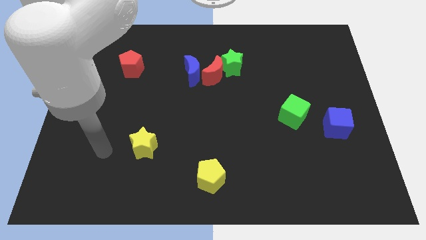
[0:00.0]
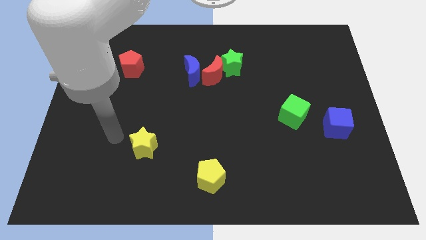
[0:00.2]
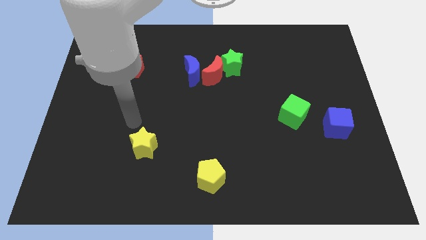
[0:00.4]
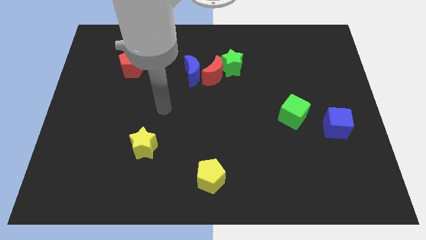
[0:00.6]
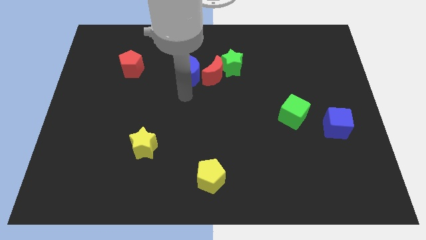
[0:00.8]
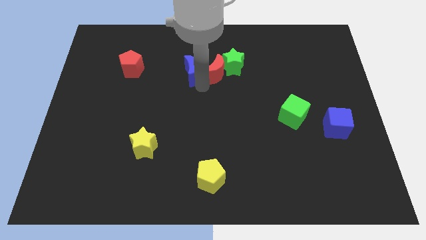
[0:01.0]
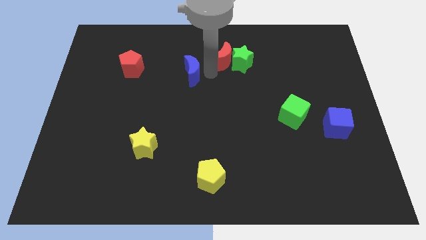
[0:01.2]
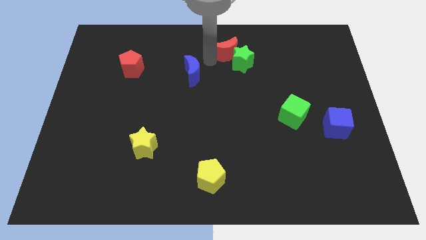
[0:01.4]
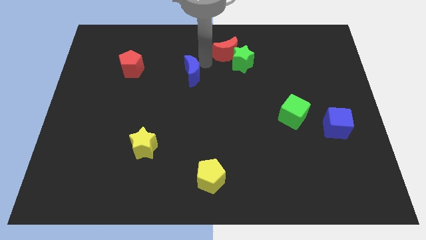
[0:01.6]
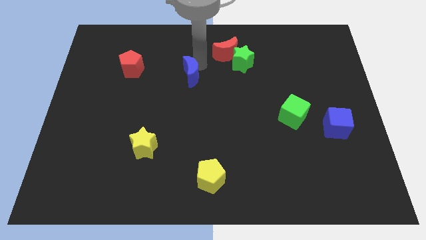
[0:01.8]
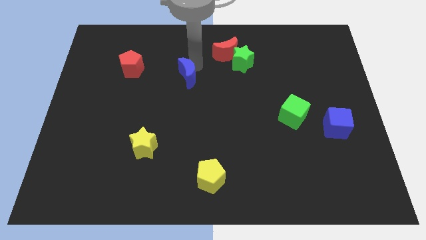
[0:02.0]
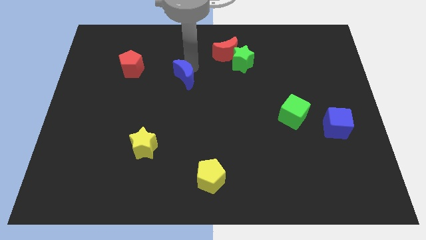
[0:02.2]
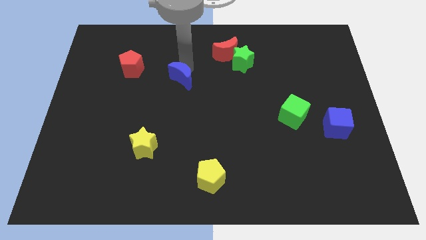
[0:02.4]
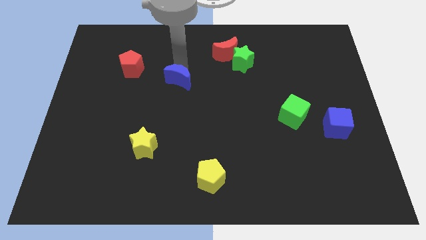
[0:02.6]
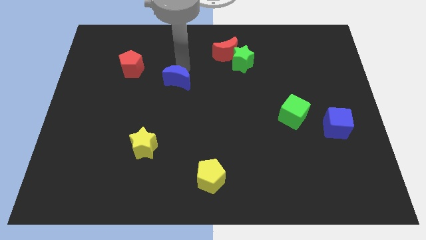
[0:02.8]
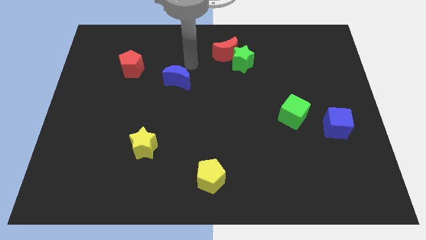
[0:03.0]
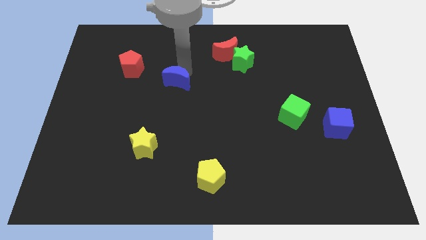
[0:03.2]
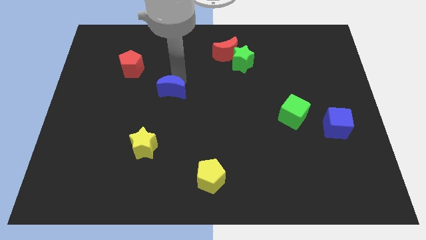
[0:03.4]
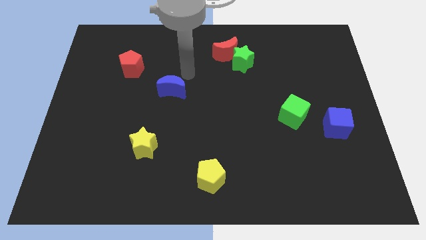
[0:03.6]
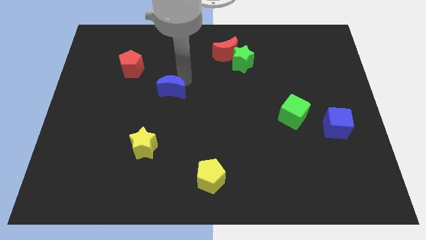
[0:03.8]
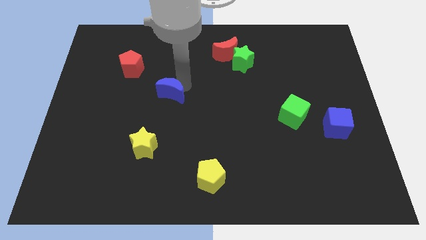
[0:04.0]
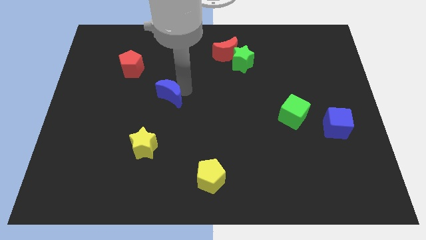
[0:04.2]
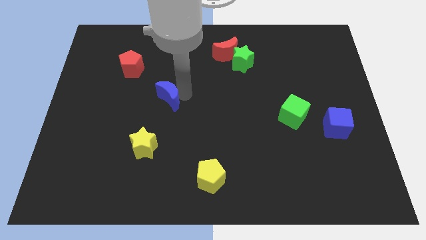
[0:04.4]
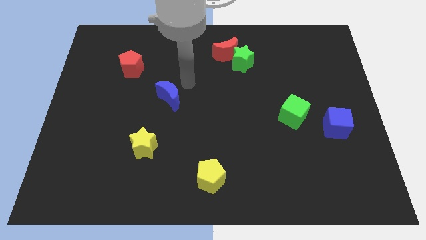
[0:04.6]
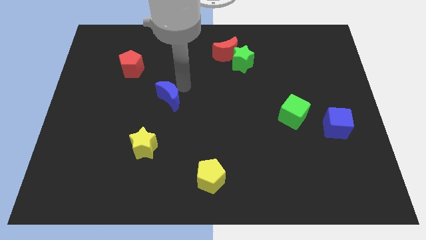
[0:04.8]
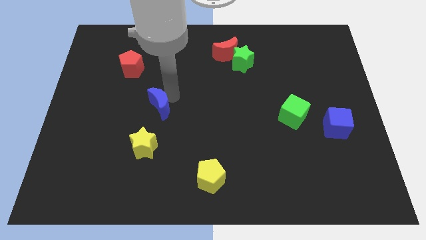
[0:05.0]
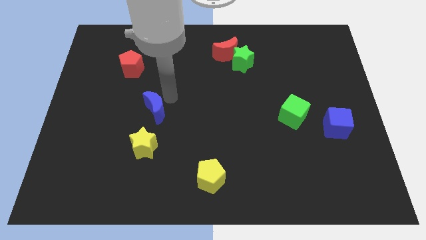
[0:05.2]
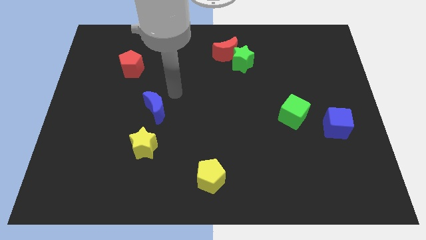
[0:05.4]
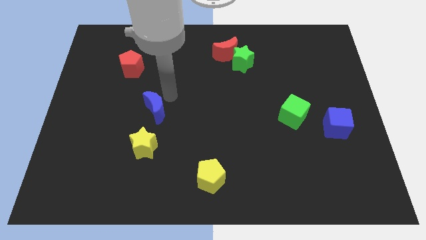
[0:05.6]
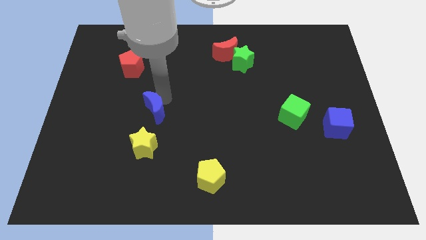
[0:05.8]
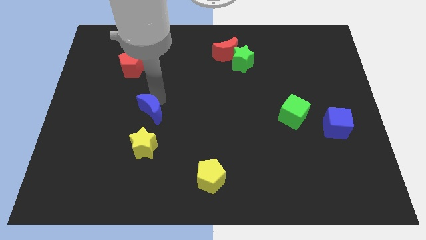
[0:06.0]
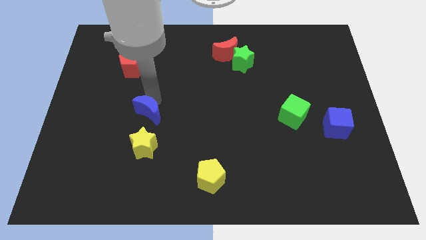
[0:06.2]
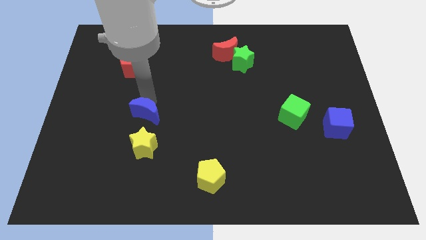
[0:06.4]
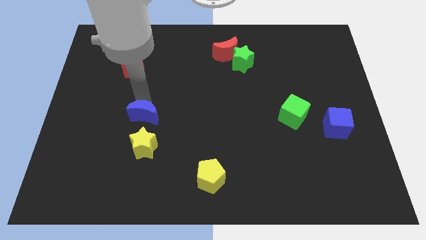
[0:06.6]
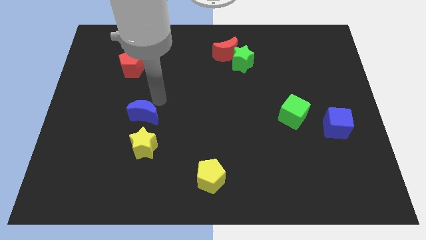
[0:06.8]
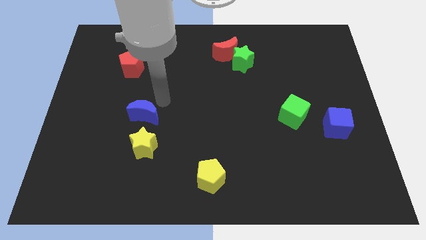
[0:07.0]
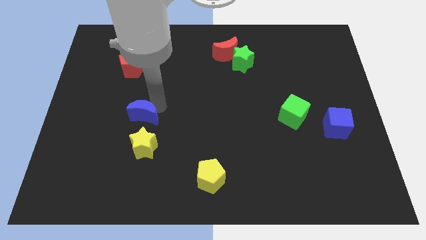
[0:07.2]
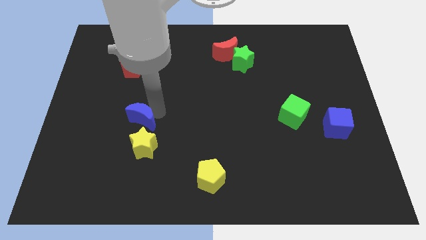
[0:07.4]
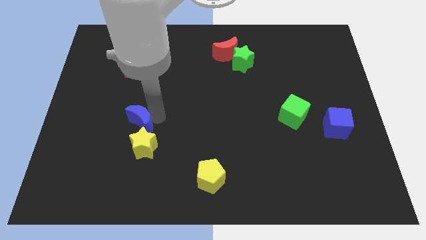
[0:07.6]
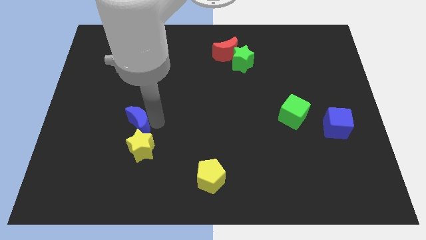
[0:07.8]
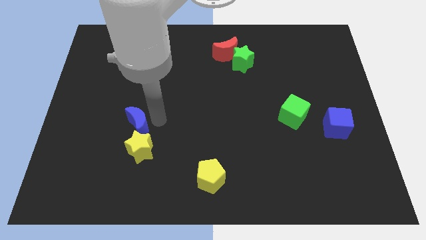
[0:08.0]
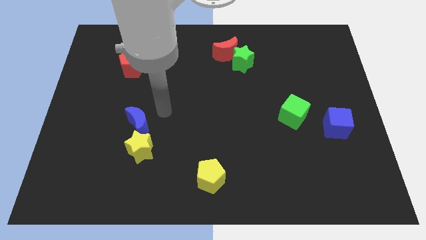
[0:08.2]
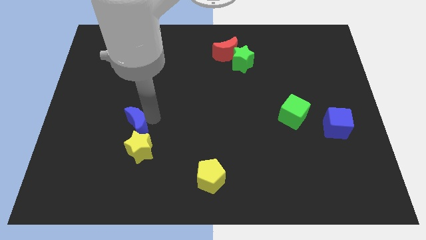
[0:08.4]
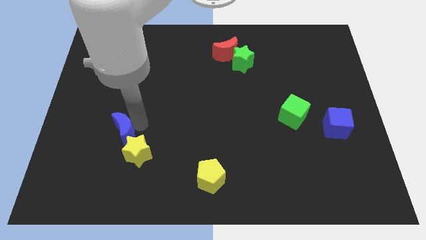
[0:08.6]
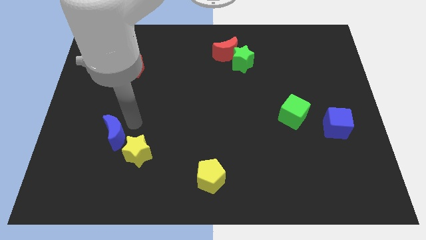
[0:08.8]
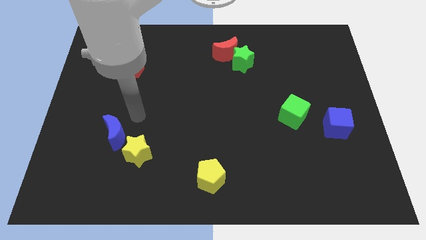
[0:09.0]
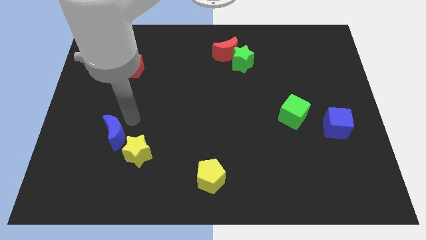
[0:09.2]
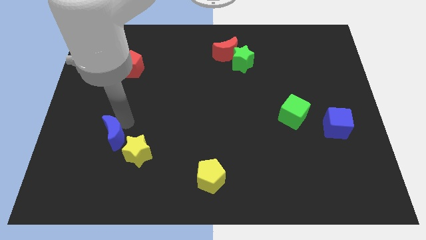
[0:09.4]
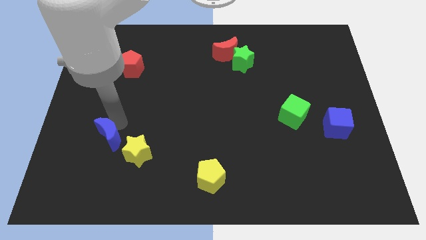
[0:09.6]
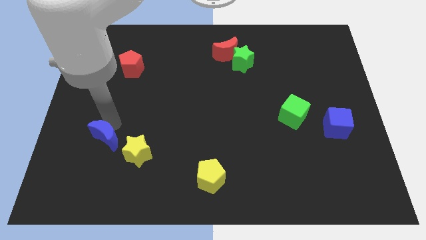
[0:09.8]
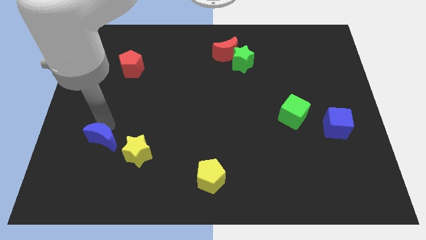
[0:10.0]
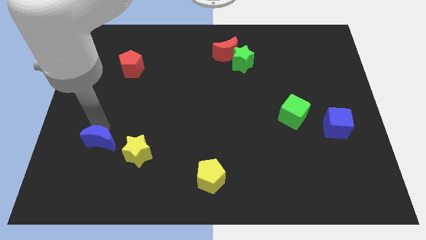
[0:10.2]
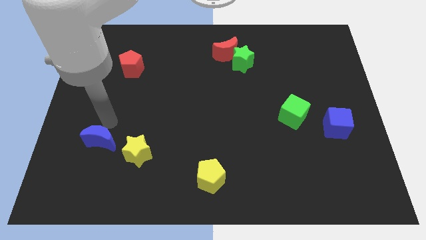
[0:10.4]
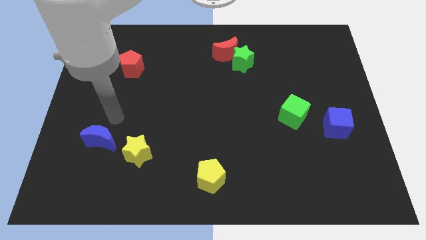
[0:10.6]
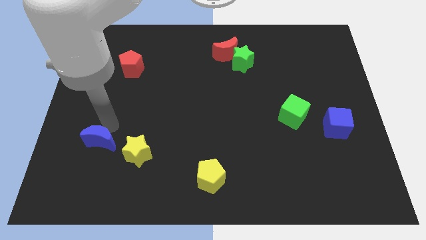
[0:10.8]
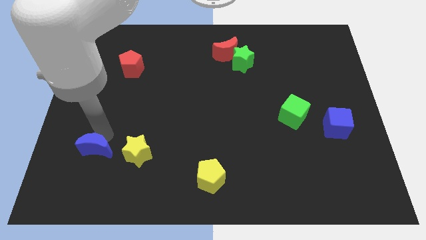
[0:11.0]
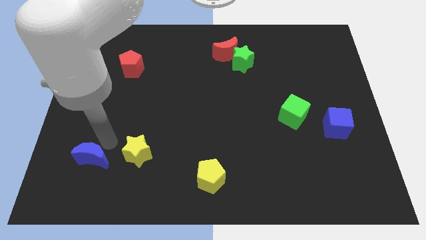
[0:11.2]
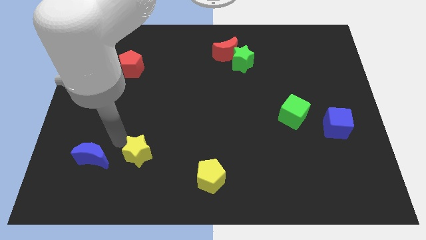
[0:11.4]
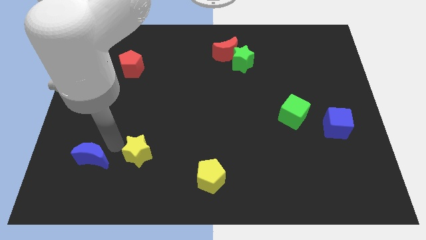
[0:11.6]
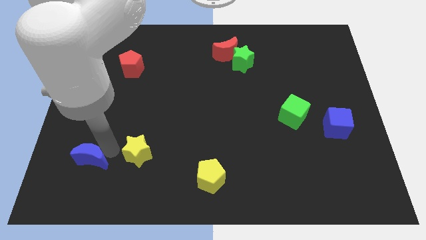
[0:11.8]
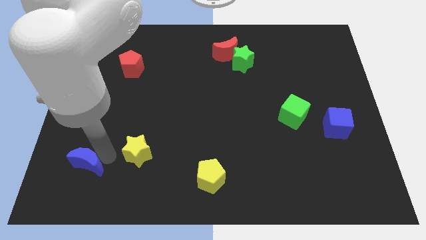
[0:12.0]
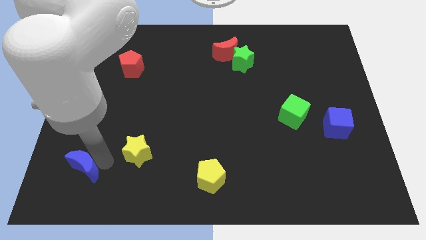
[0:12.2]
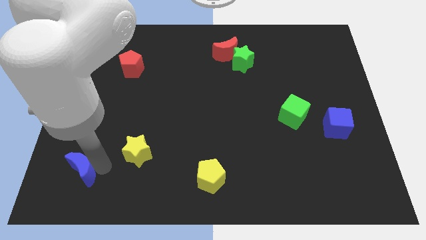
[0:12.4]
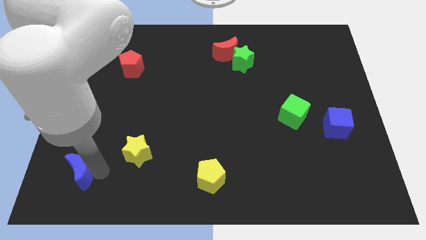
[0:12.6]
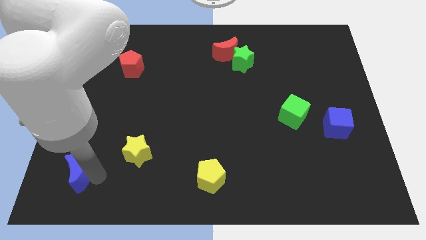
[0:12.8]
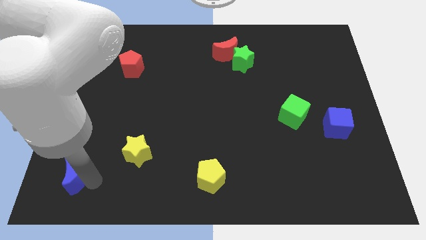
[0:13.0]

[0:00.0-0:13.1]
put the blue moon to the lower left corner
